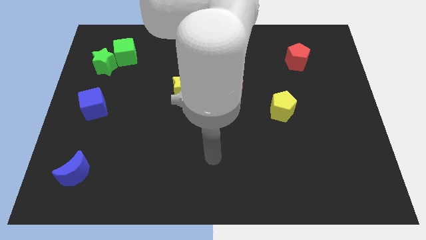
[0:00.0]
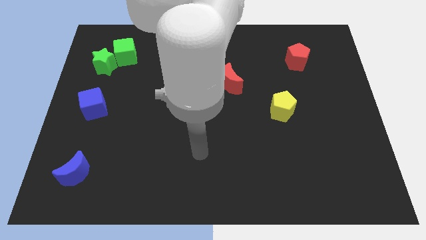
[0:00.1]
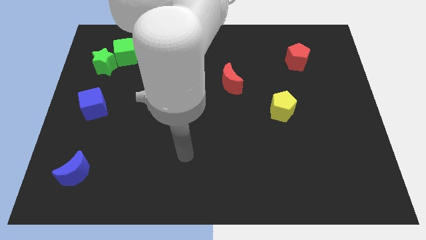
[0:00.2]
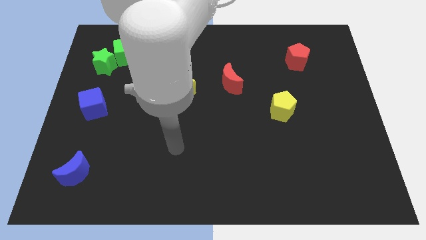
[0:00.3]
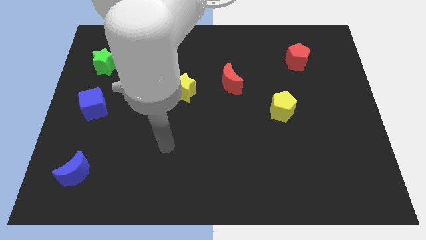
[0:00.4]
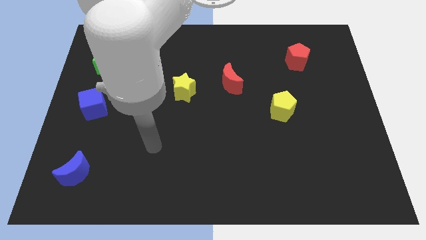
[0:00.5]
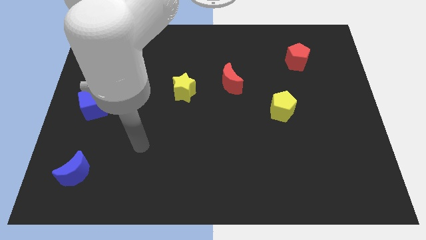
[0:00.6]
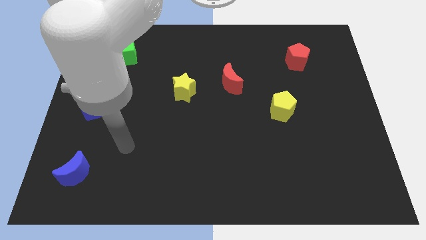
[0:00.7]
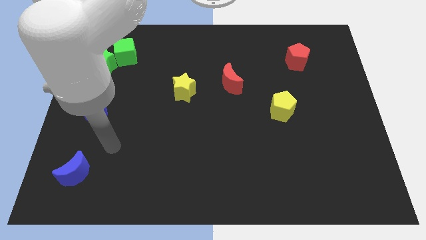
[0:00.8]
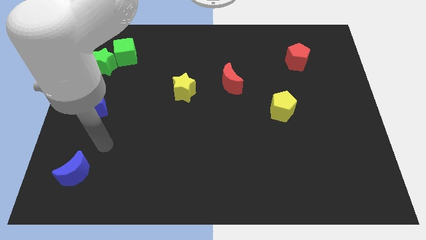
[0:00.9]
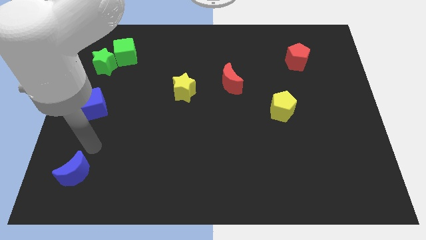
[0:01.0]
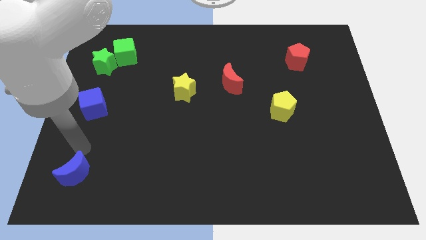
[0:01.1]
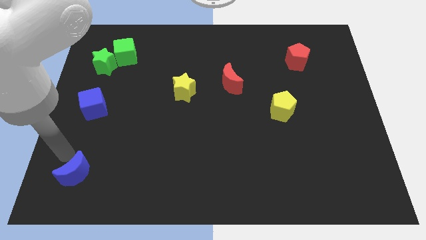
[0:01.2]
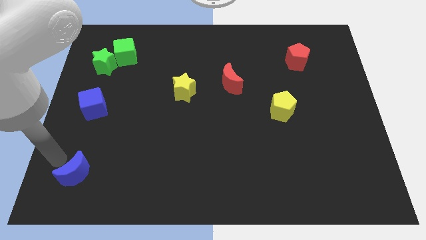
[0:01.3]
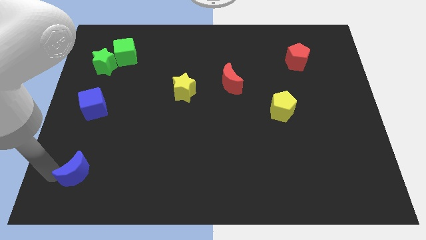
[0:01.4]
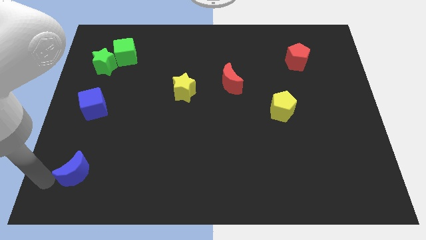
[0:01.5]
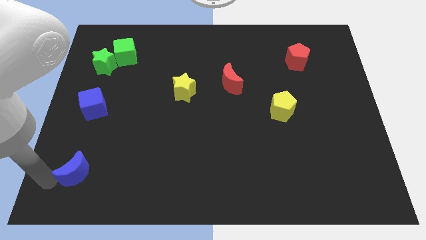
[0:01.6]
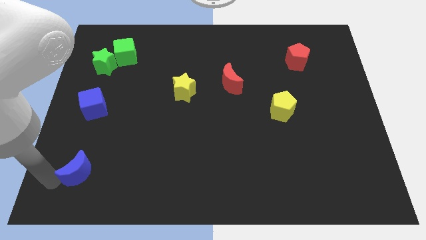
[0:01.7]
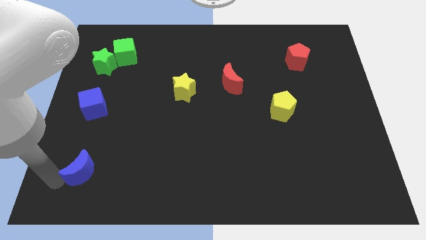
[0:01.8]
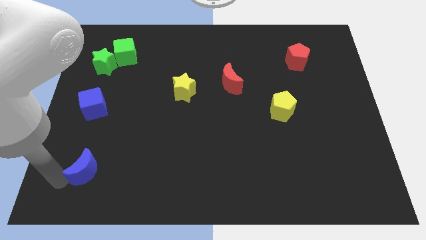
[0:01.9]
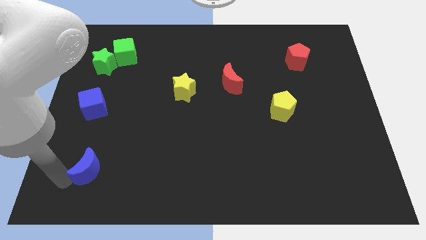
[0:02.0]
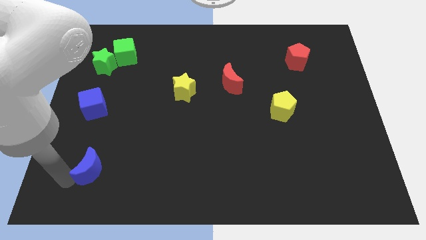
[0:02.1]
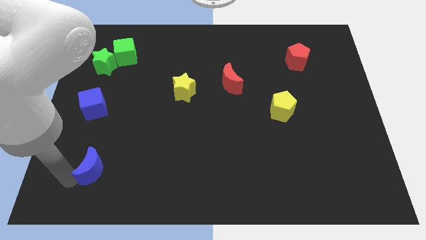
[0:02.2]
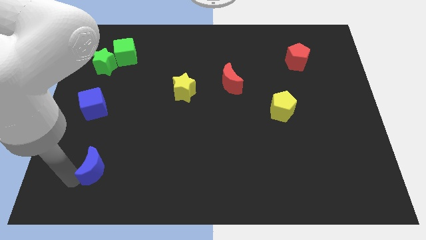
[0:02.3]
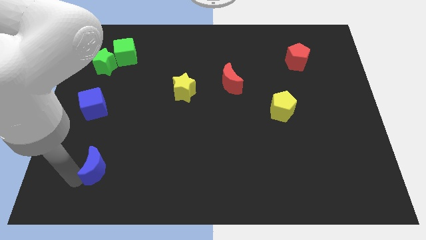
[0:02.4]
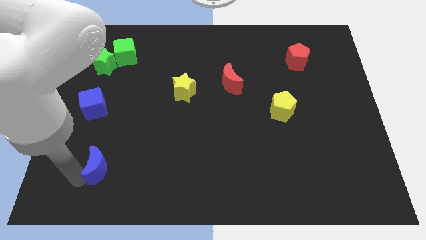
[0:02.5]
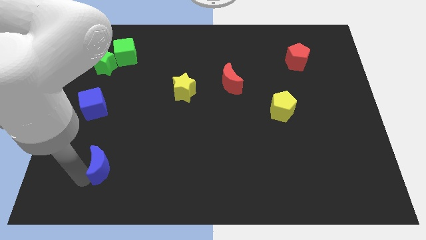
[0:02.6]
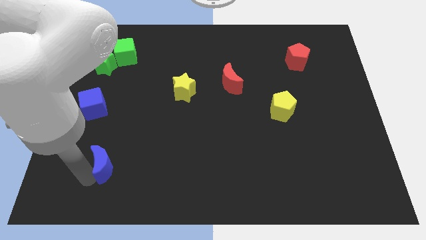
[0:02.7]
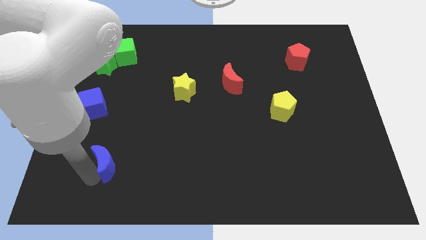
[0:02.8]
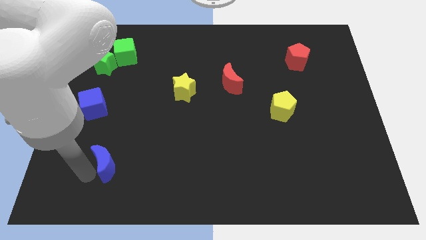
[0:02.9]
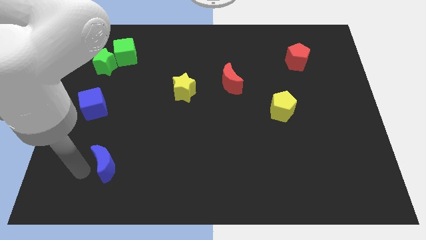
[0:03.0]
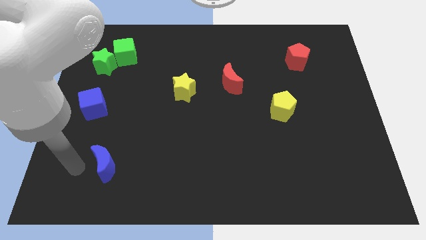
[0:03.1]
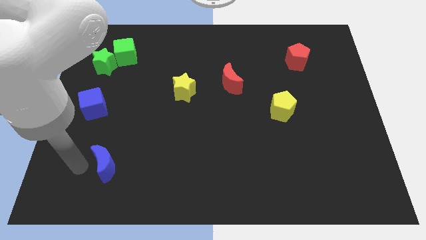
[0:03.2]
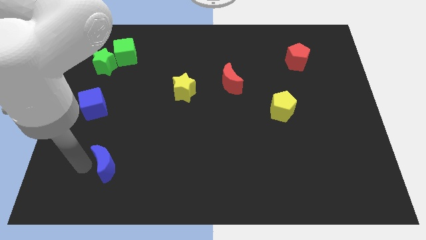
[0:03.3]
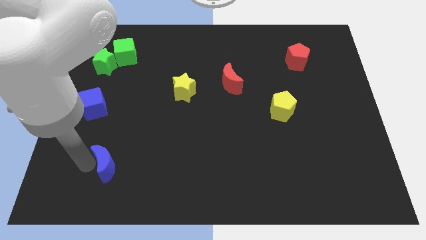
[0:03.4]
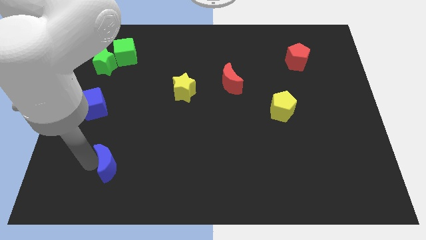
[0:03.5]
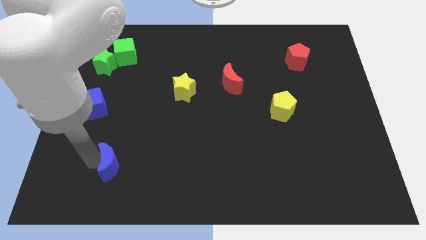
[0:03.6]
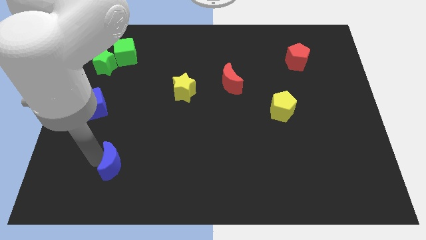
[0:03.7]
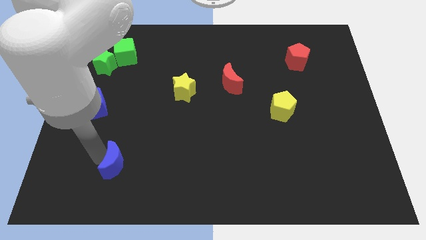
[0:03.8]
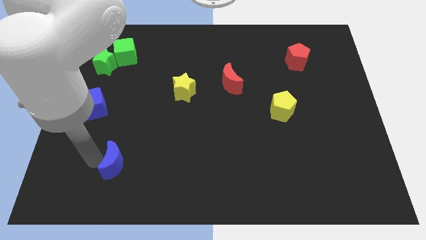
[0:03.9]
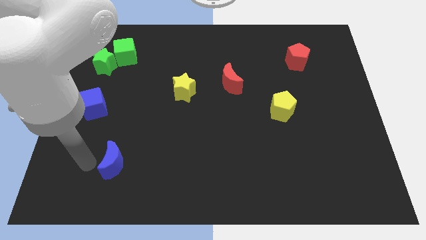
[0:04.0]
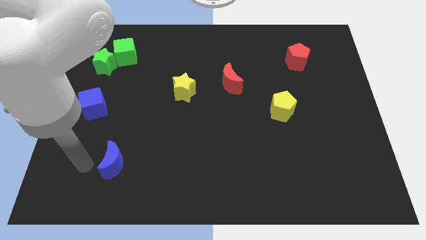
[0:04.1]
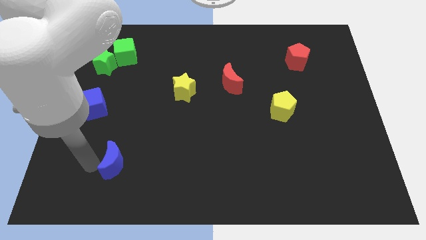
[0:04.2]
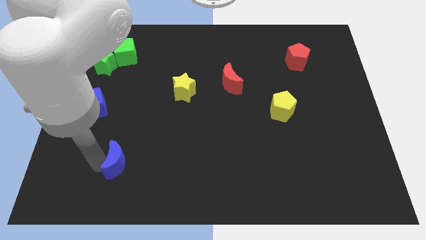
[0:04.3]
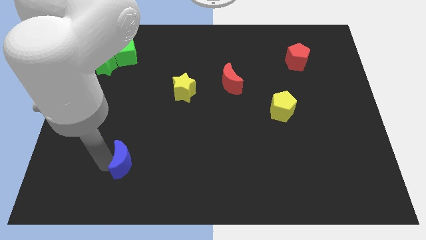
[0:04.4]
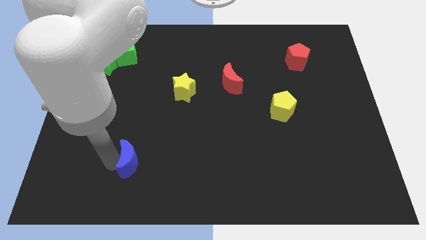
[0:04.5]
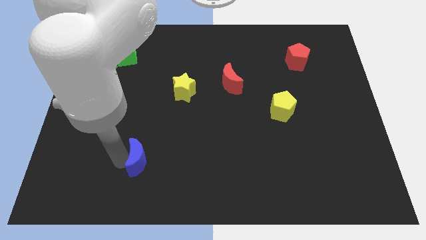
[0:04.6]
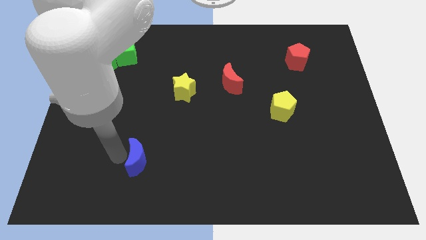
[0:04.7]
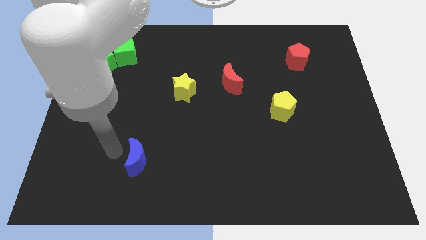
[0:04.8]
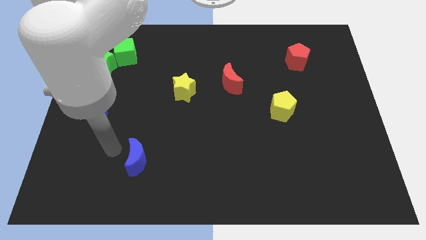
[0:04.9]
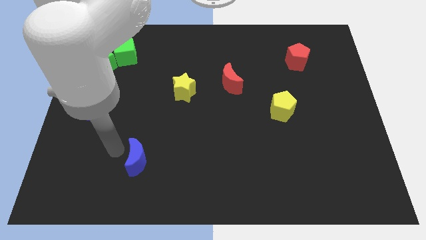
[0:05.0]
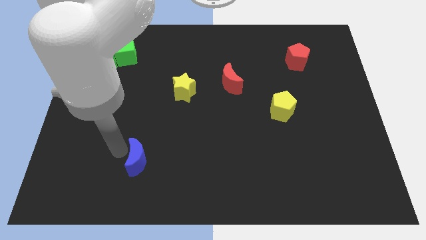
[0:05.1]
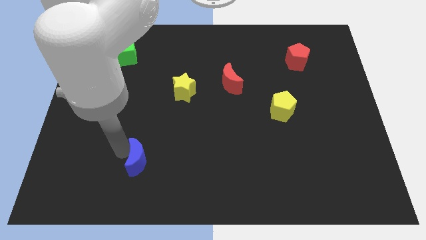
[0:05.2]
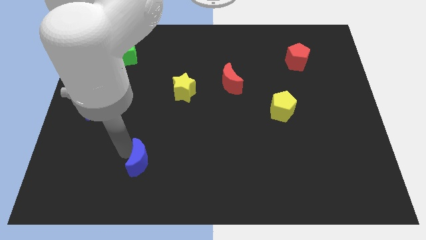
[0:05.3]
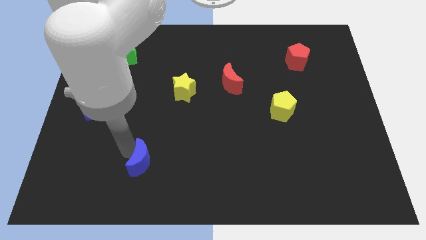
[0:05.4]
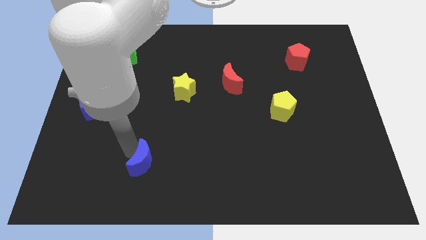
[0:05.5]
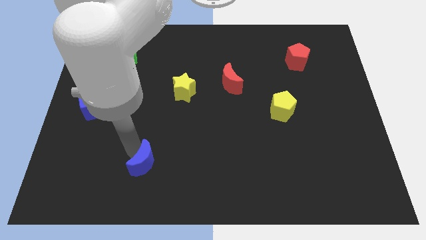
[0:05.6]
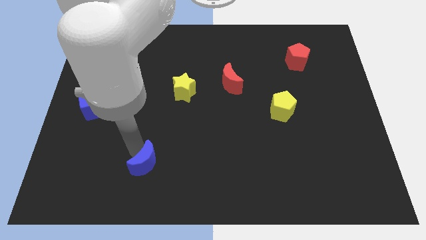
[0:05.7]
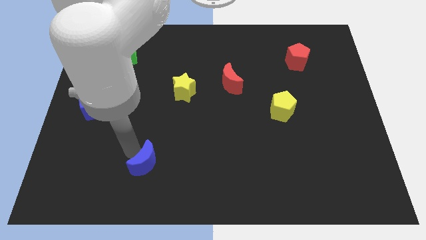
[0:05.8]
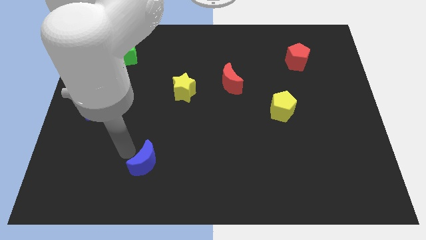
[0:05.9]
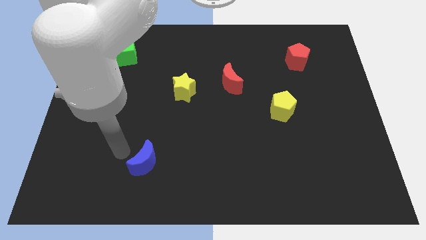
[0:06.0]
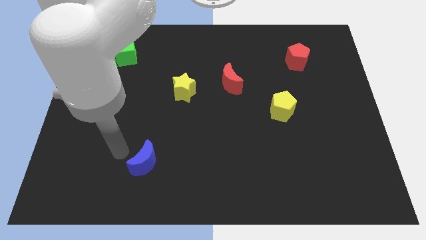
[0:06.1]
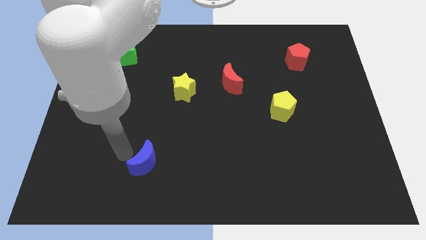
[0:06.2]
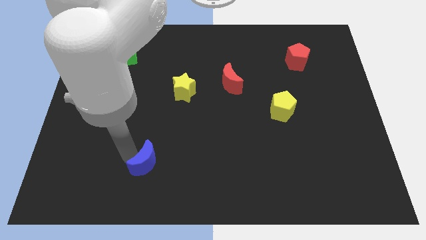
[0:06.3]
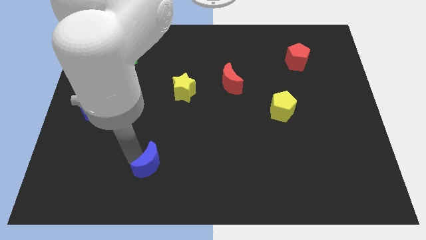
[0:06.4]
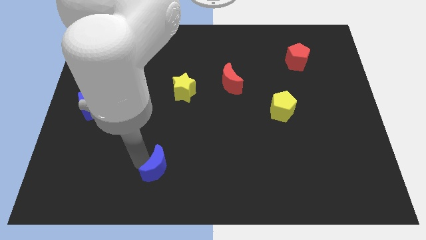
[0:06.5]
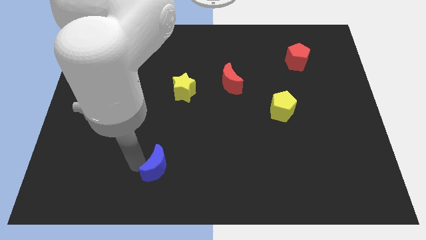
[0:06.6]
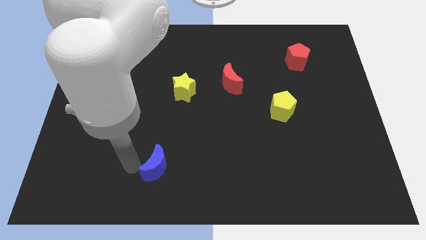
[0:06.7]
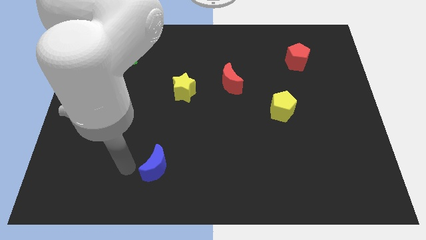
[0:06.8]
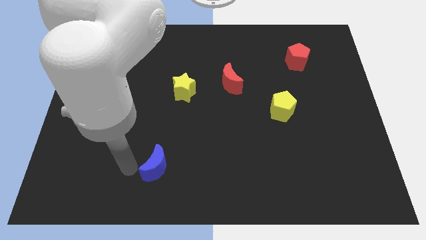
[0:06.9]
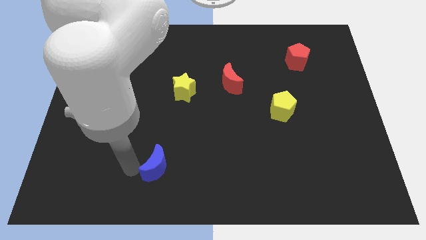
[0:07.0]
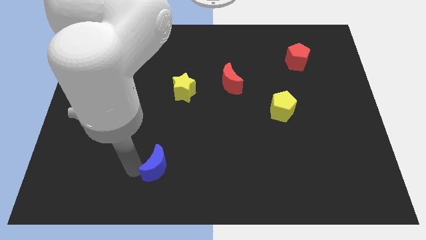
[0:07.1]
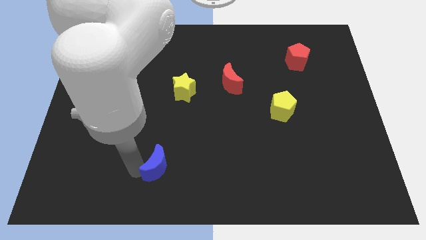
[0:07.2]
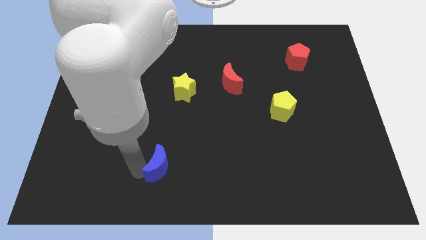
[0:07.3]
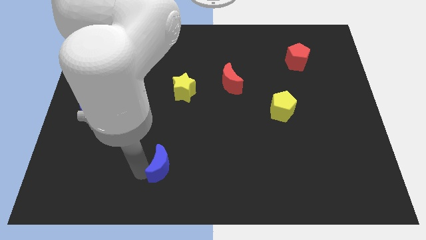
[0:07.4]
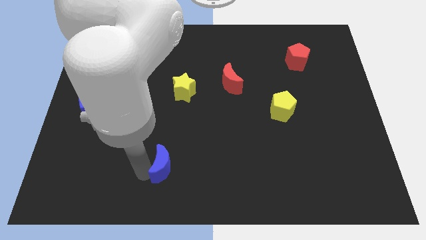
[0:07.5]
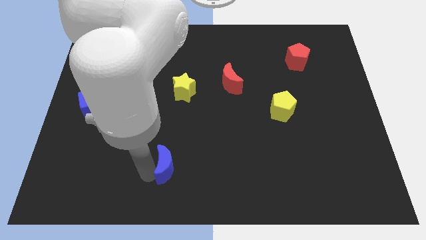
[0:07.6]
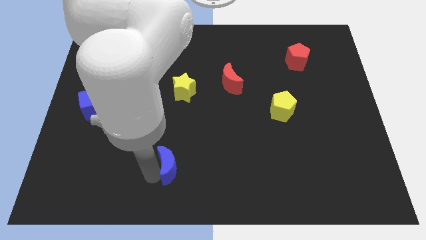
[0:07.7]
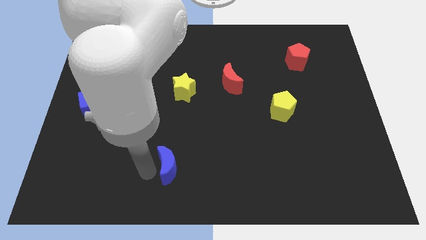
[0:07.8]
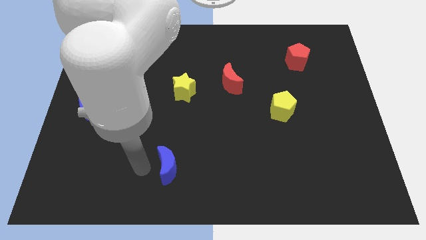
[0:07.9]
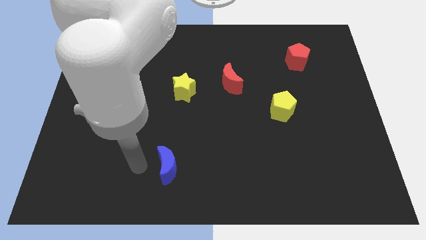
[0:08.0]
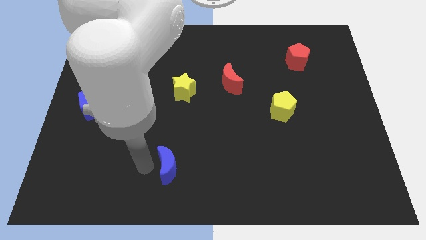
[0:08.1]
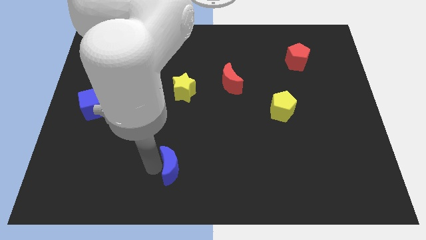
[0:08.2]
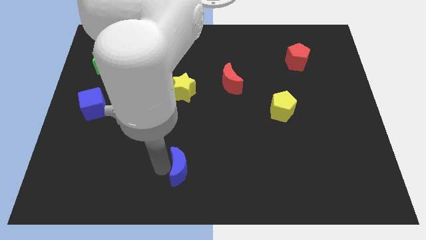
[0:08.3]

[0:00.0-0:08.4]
move the blue moon right
